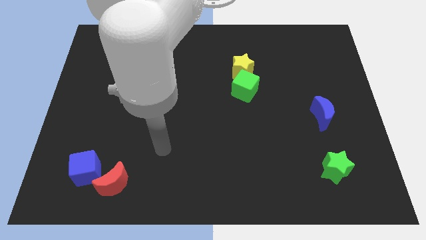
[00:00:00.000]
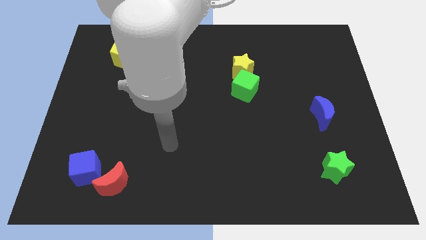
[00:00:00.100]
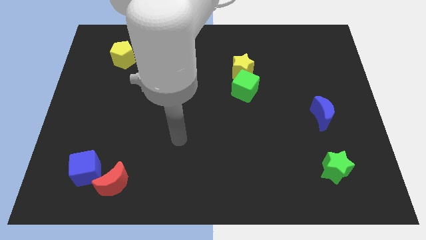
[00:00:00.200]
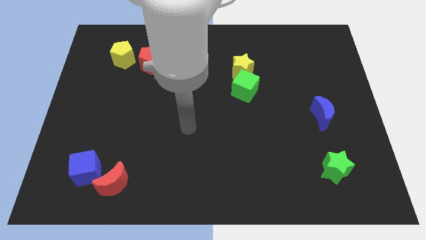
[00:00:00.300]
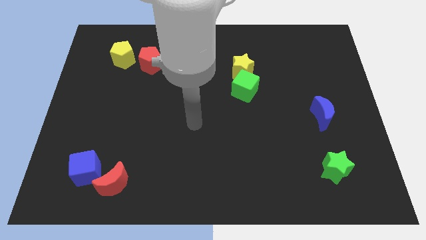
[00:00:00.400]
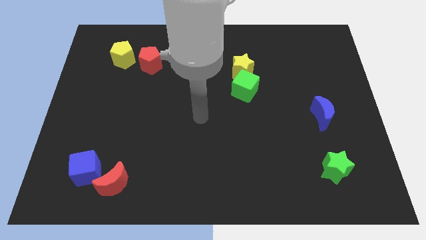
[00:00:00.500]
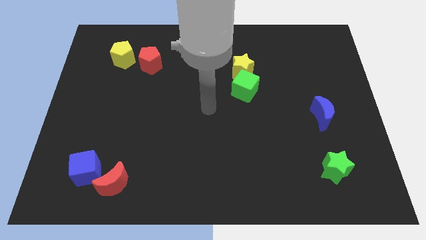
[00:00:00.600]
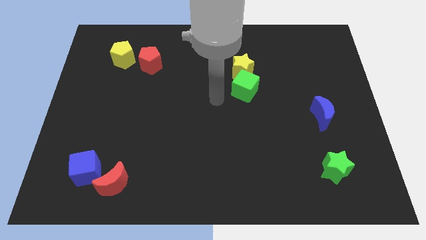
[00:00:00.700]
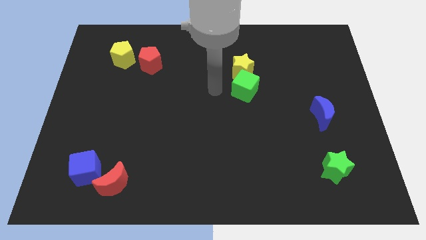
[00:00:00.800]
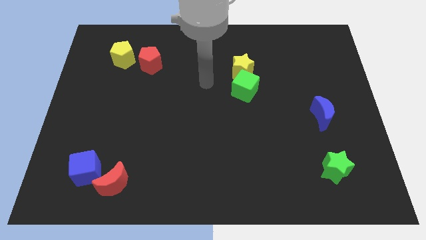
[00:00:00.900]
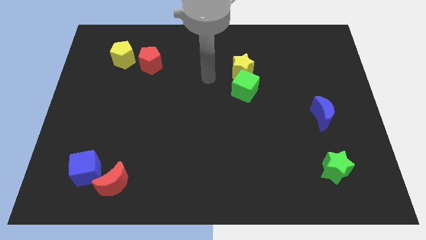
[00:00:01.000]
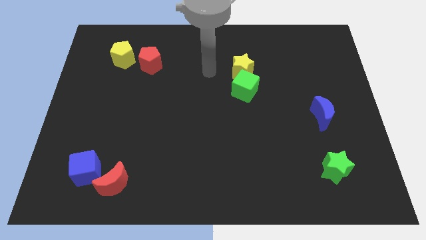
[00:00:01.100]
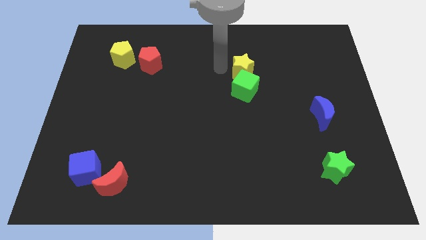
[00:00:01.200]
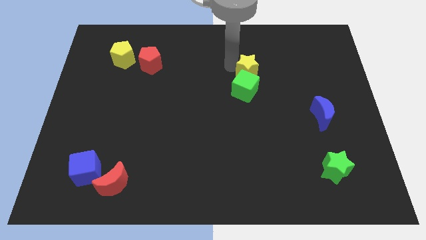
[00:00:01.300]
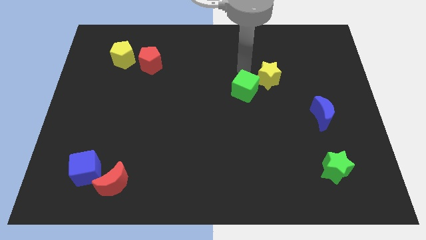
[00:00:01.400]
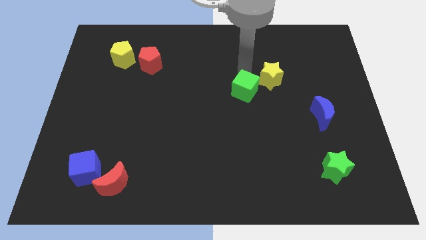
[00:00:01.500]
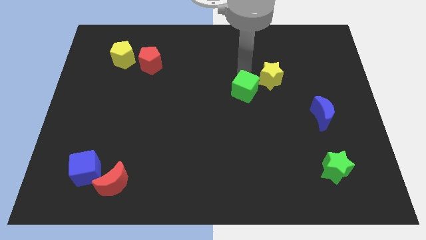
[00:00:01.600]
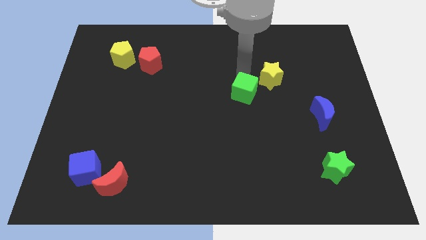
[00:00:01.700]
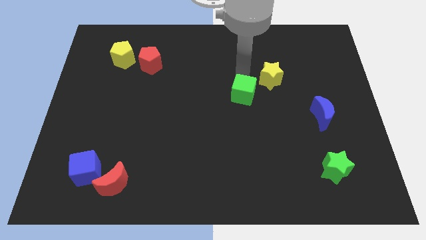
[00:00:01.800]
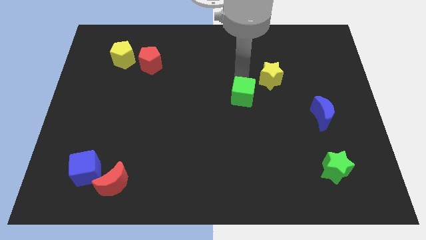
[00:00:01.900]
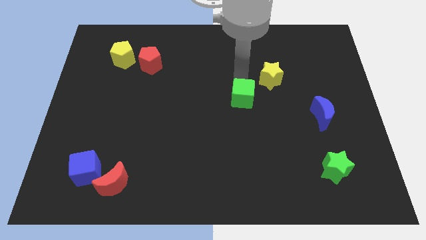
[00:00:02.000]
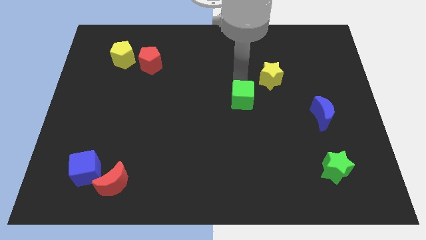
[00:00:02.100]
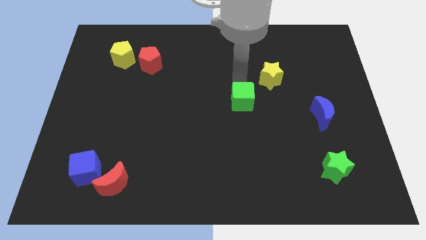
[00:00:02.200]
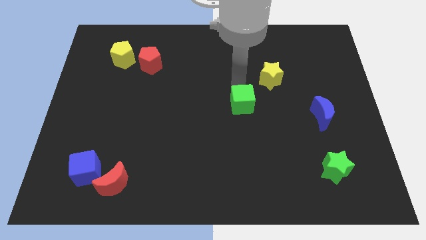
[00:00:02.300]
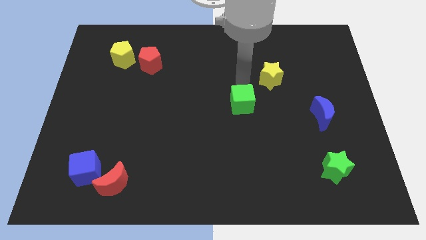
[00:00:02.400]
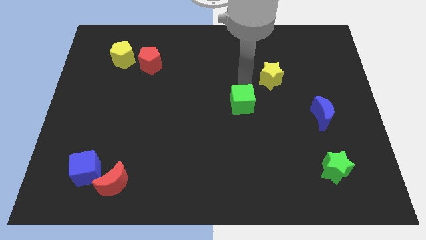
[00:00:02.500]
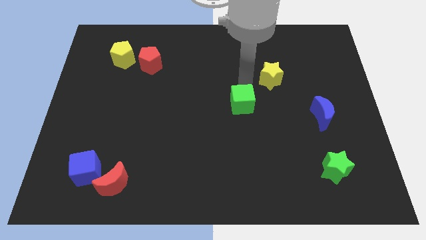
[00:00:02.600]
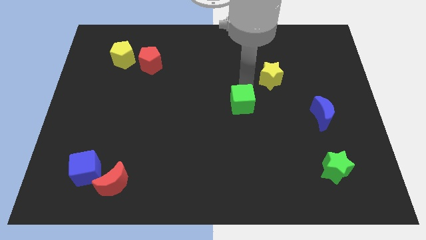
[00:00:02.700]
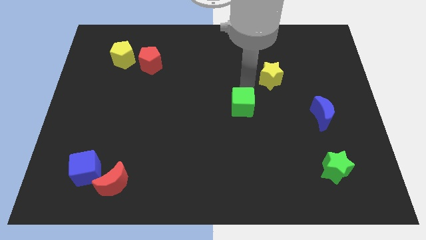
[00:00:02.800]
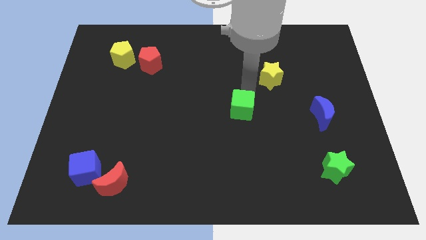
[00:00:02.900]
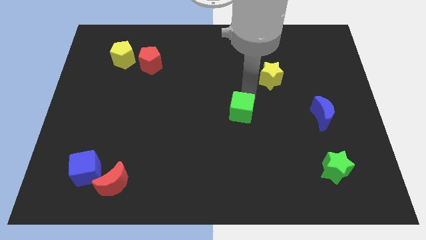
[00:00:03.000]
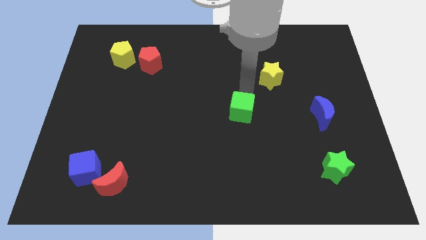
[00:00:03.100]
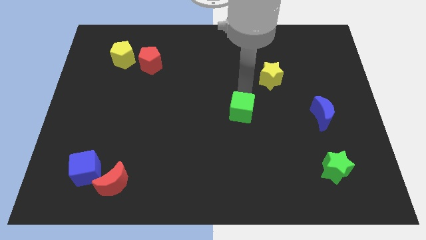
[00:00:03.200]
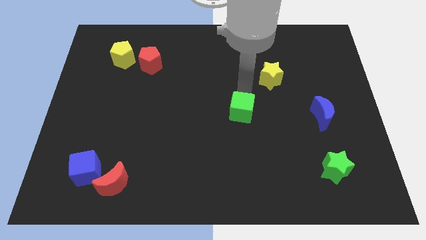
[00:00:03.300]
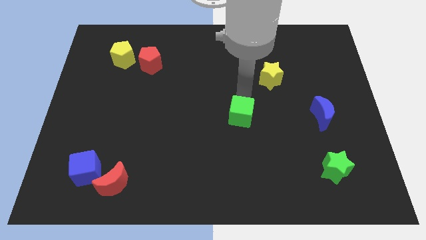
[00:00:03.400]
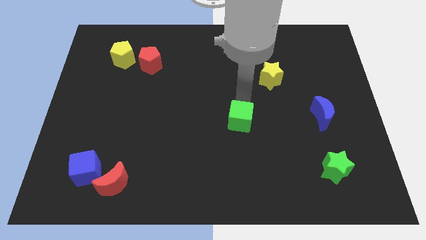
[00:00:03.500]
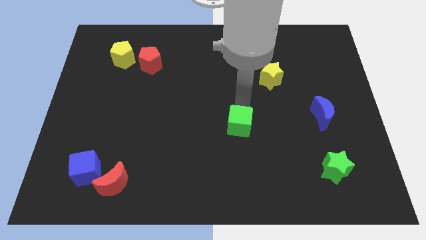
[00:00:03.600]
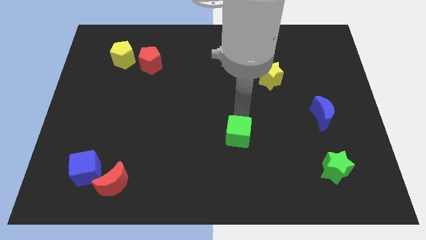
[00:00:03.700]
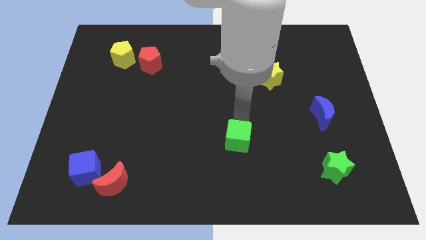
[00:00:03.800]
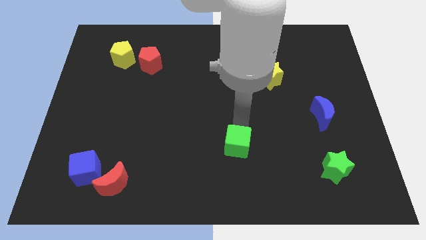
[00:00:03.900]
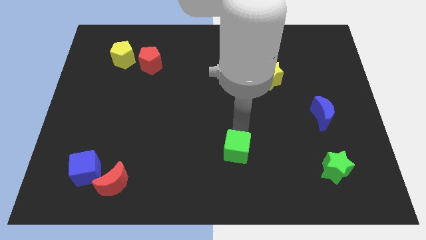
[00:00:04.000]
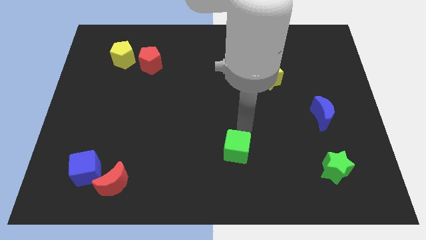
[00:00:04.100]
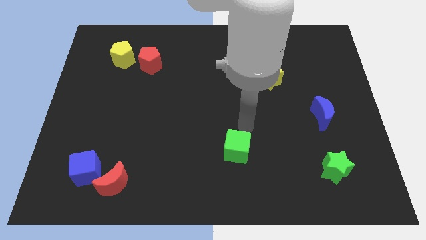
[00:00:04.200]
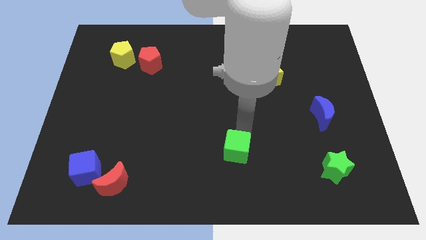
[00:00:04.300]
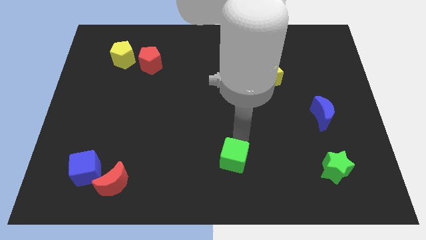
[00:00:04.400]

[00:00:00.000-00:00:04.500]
slide the green cube to the bottom

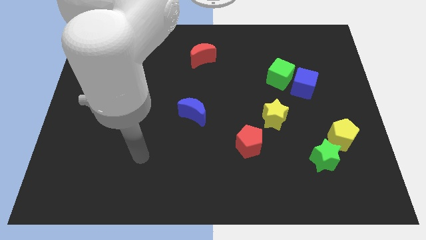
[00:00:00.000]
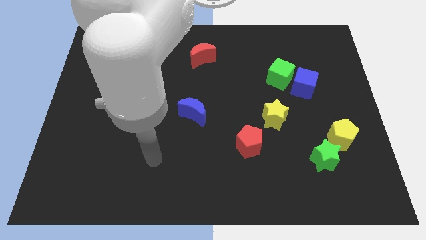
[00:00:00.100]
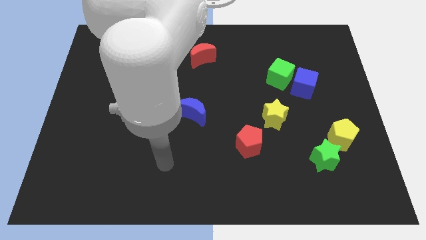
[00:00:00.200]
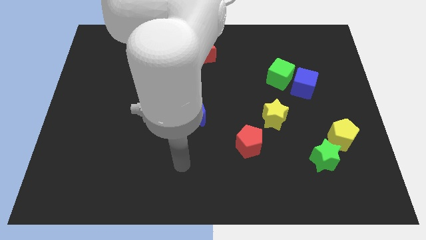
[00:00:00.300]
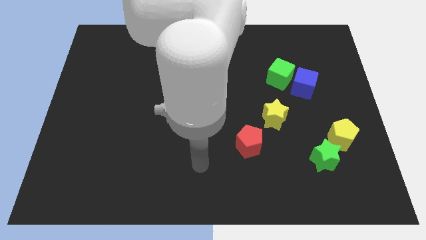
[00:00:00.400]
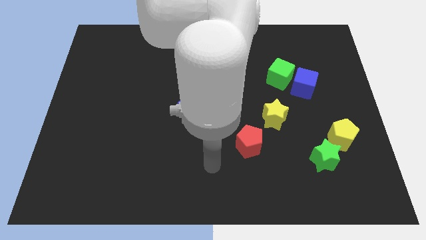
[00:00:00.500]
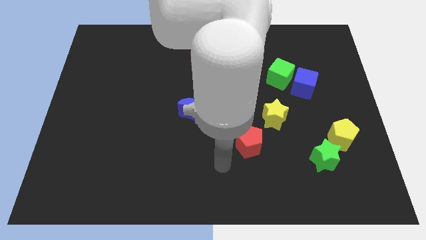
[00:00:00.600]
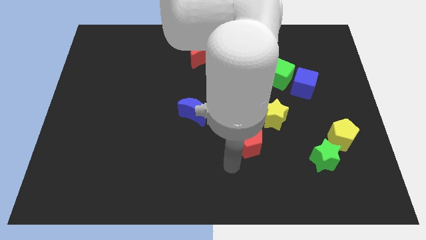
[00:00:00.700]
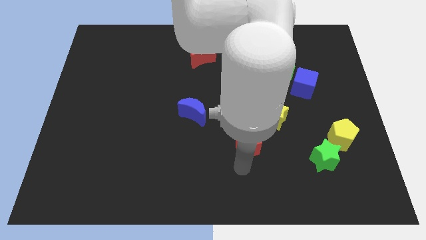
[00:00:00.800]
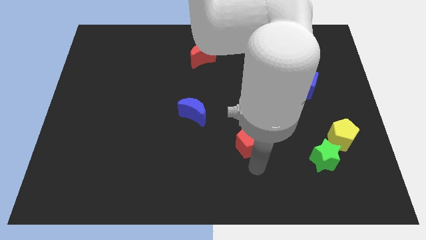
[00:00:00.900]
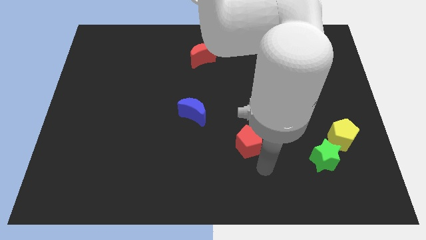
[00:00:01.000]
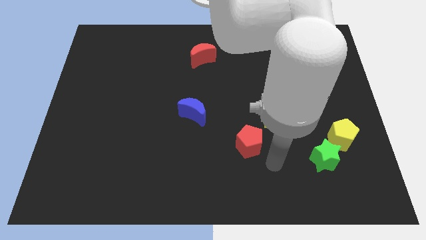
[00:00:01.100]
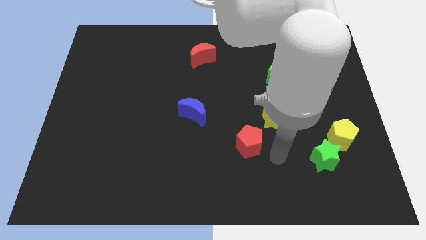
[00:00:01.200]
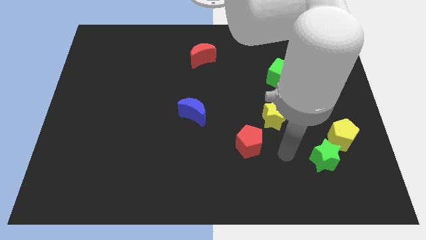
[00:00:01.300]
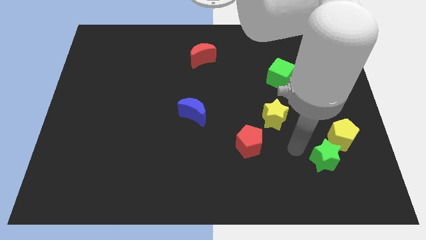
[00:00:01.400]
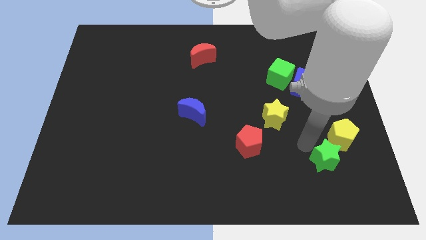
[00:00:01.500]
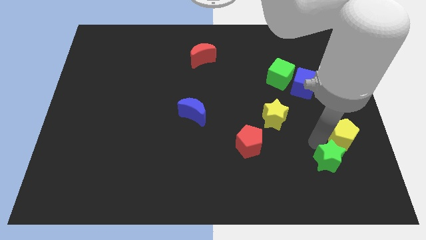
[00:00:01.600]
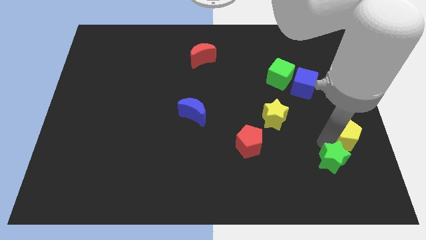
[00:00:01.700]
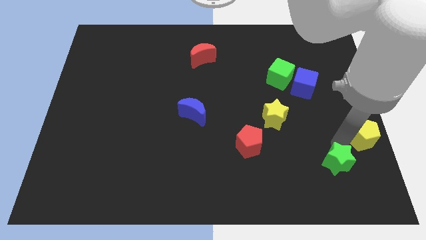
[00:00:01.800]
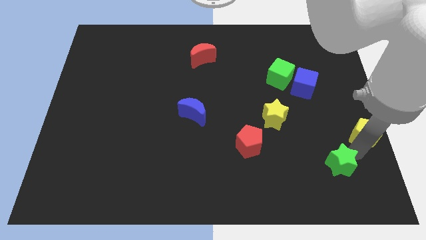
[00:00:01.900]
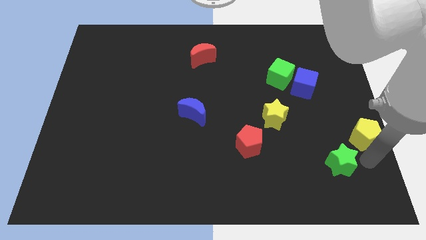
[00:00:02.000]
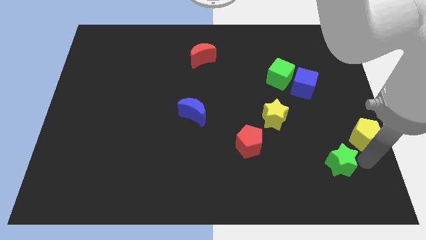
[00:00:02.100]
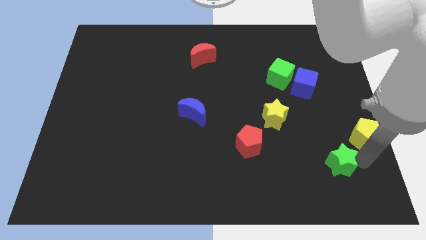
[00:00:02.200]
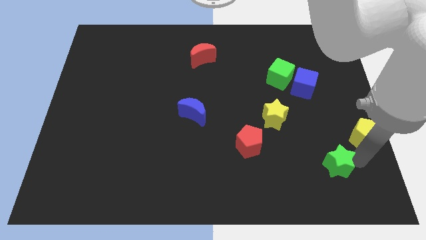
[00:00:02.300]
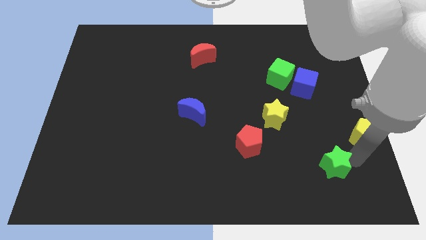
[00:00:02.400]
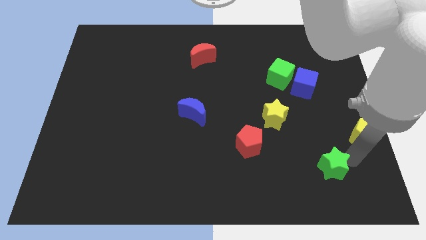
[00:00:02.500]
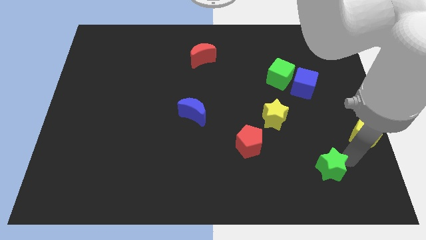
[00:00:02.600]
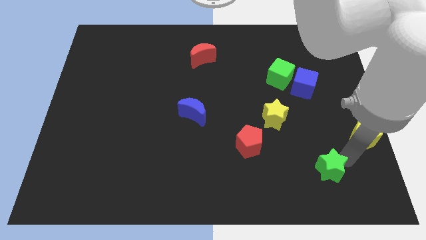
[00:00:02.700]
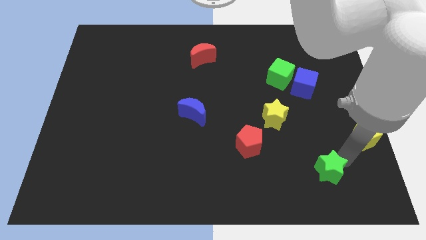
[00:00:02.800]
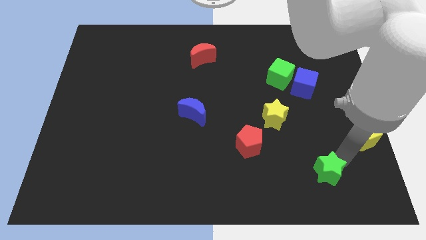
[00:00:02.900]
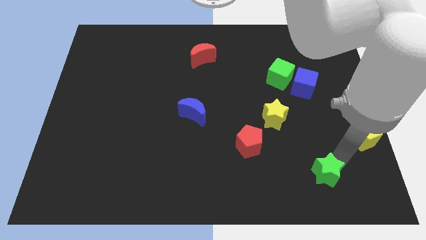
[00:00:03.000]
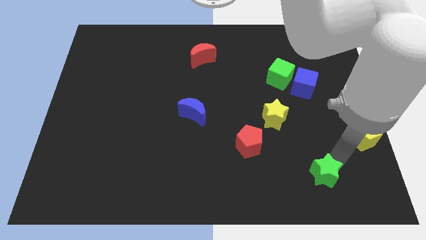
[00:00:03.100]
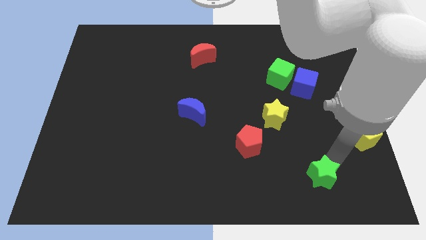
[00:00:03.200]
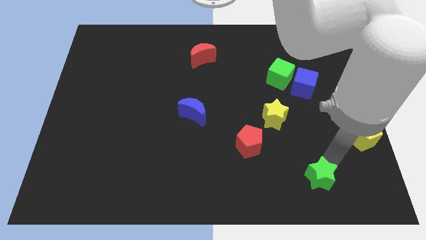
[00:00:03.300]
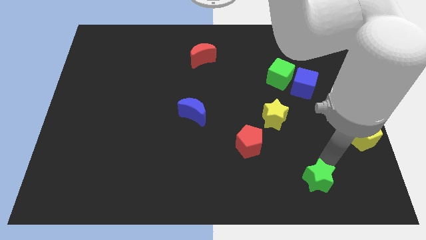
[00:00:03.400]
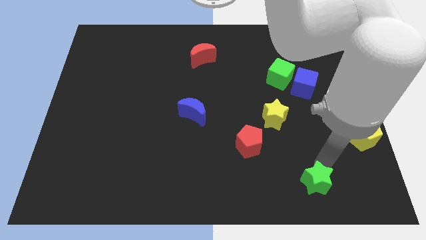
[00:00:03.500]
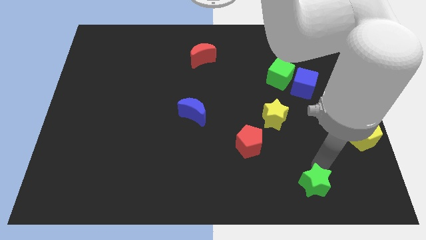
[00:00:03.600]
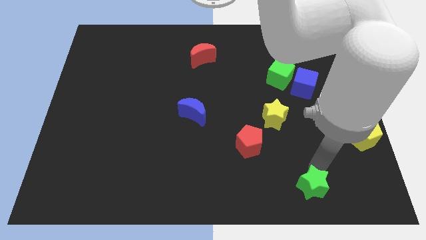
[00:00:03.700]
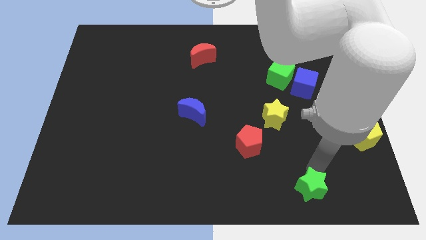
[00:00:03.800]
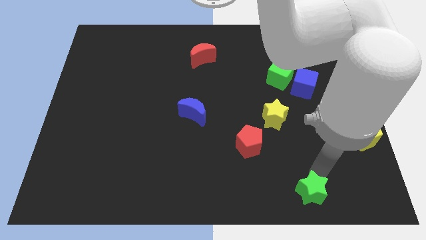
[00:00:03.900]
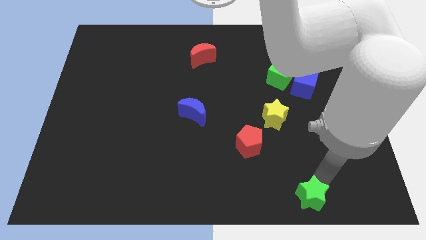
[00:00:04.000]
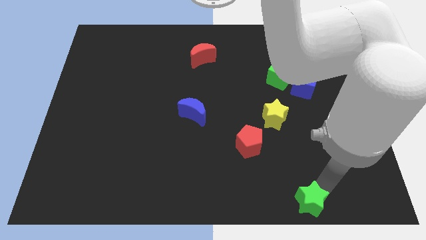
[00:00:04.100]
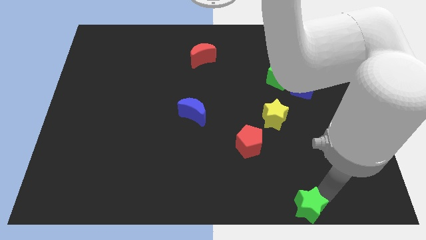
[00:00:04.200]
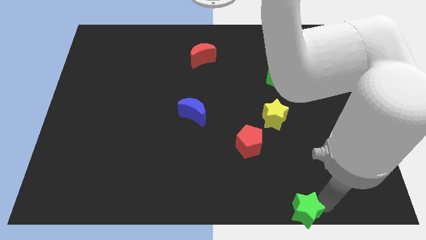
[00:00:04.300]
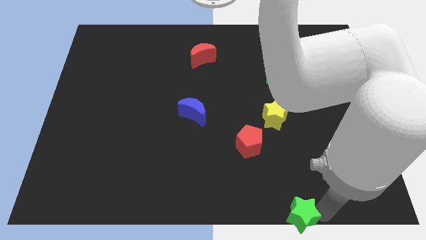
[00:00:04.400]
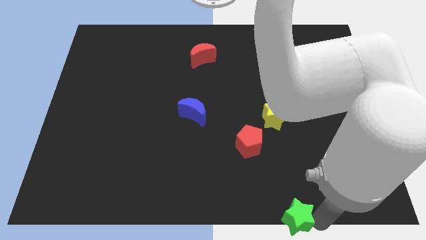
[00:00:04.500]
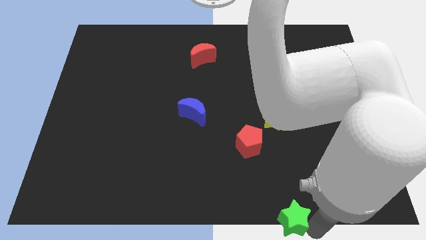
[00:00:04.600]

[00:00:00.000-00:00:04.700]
put the green star to the bottom
